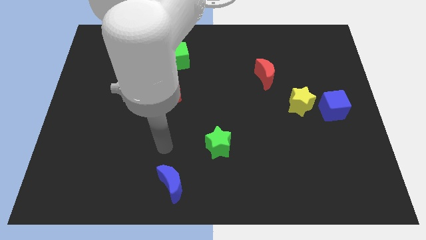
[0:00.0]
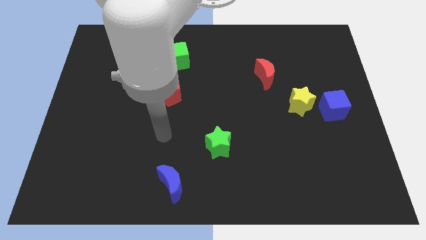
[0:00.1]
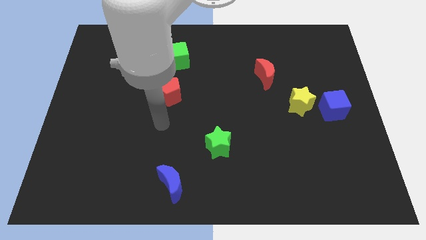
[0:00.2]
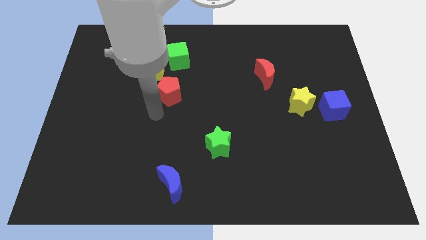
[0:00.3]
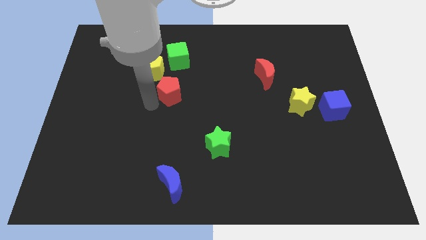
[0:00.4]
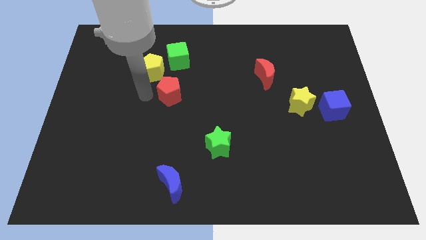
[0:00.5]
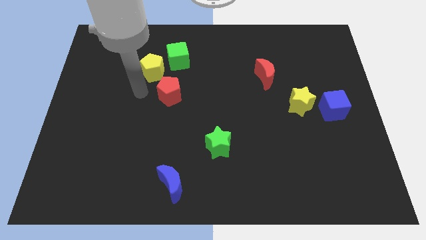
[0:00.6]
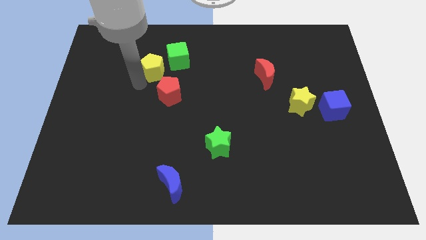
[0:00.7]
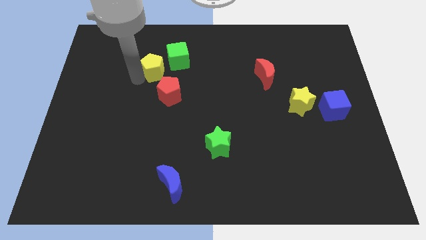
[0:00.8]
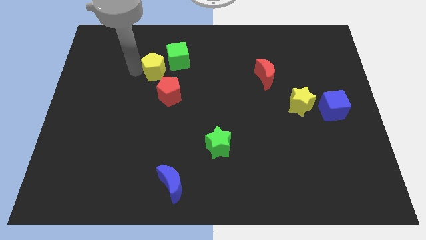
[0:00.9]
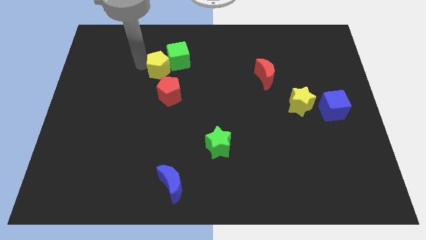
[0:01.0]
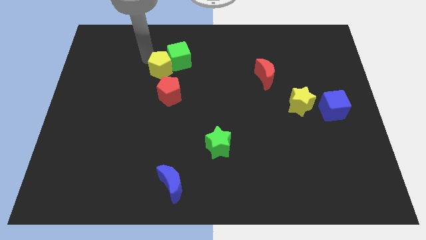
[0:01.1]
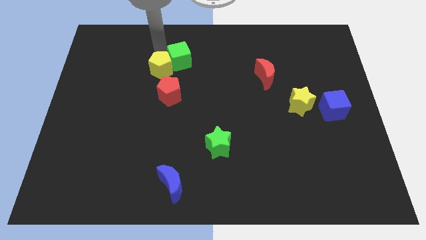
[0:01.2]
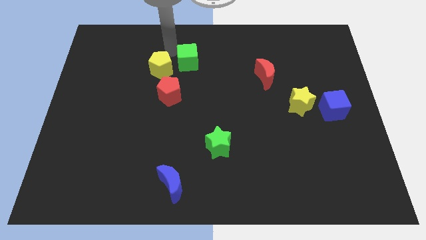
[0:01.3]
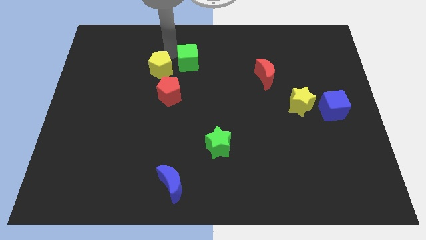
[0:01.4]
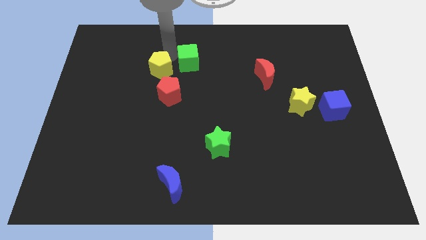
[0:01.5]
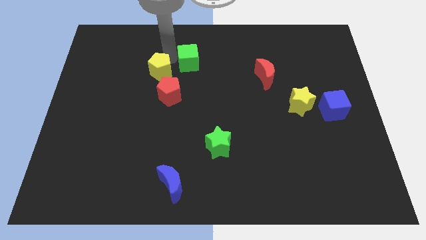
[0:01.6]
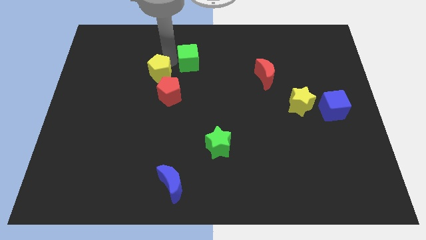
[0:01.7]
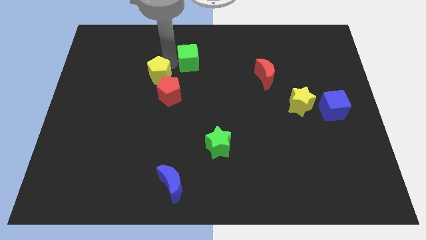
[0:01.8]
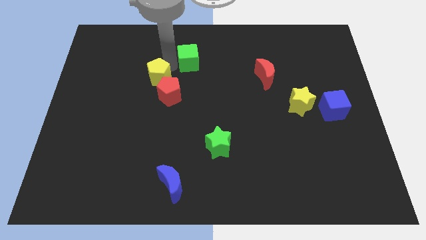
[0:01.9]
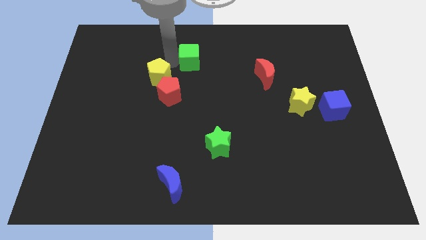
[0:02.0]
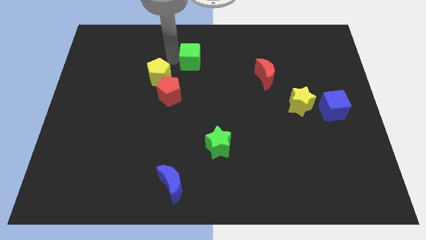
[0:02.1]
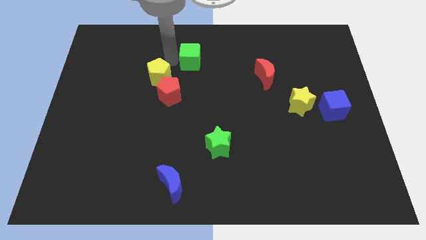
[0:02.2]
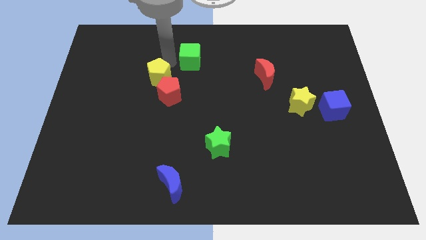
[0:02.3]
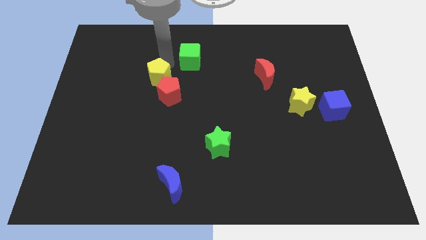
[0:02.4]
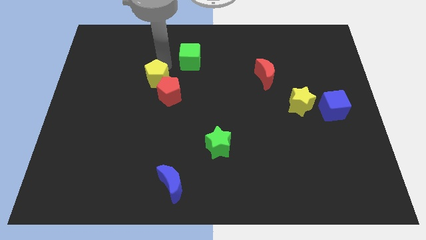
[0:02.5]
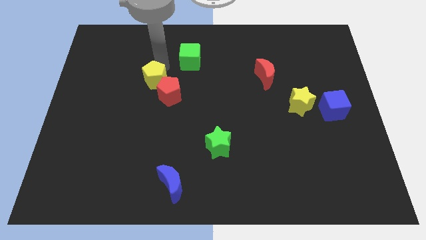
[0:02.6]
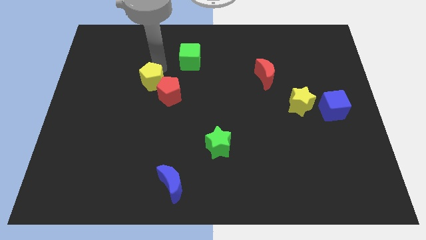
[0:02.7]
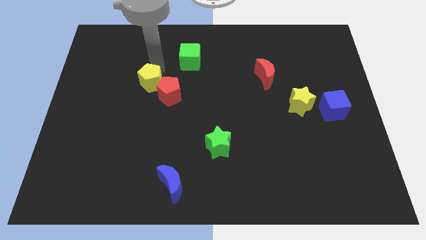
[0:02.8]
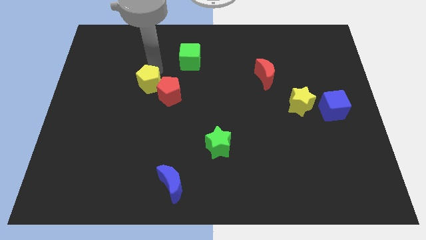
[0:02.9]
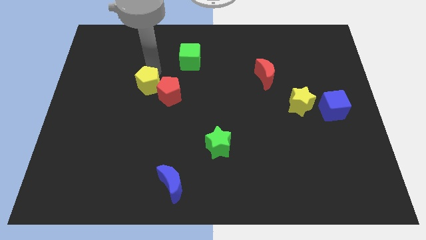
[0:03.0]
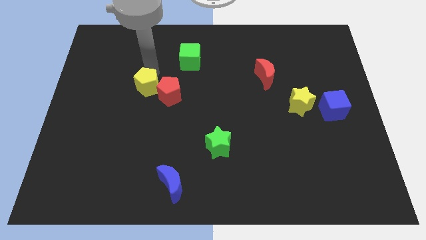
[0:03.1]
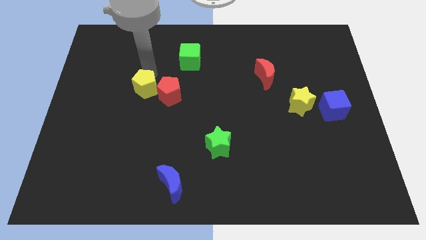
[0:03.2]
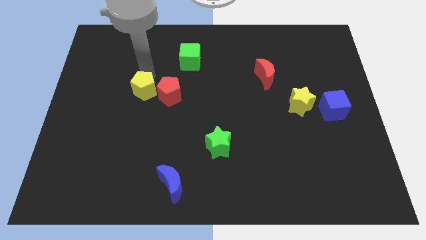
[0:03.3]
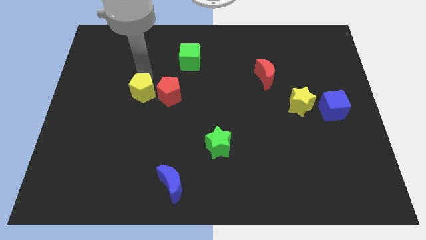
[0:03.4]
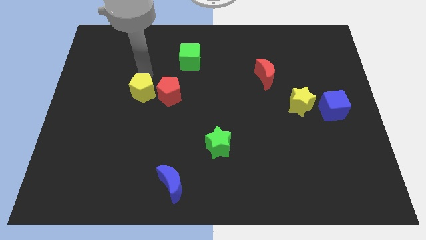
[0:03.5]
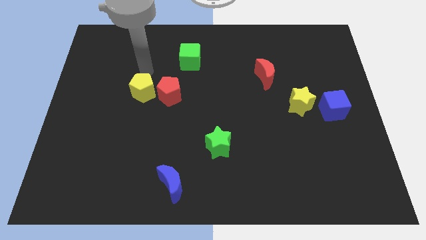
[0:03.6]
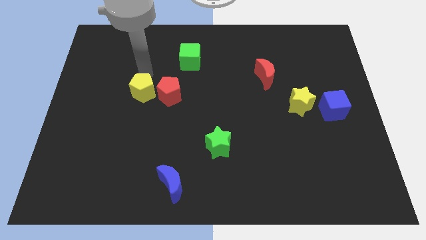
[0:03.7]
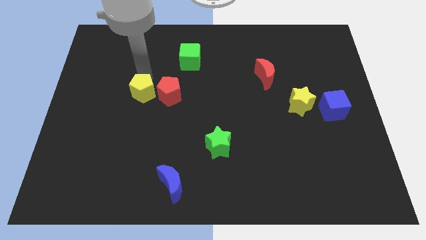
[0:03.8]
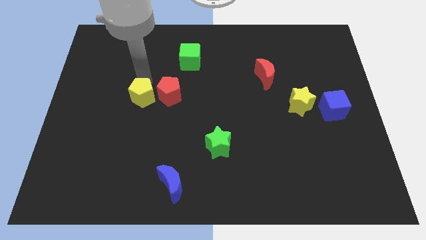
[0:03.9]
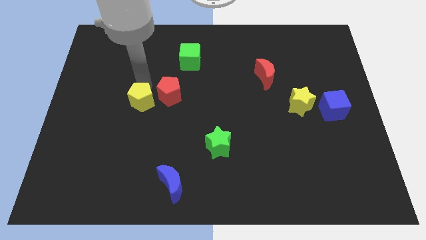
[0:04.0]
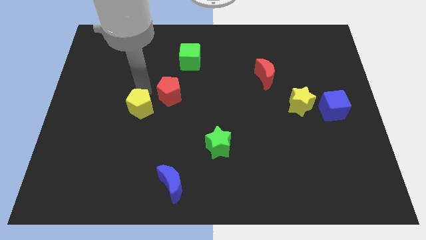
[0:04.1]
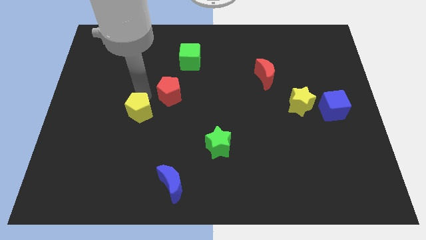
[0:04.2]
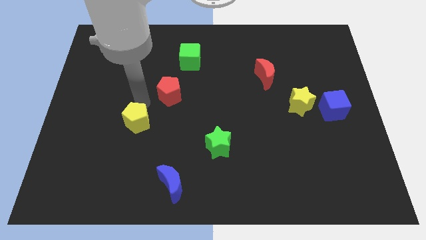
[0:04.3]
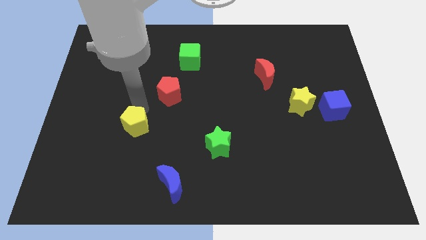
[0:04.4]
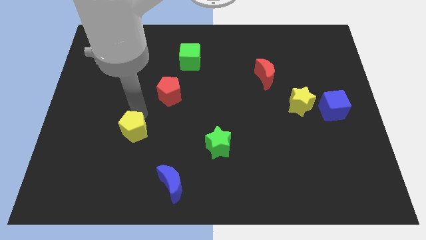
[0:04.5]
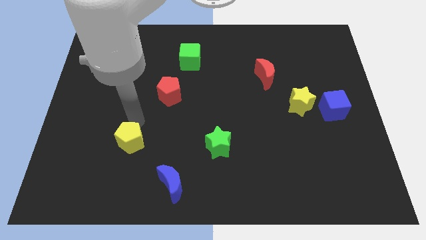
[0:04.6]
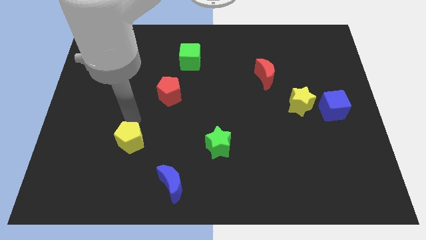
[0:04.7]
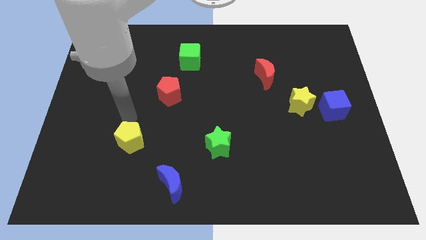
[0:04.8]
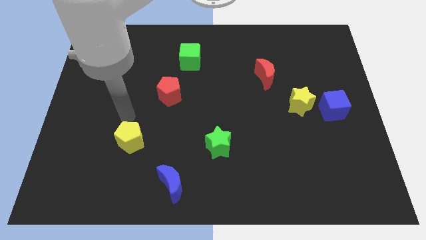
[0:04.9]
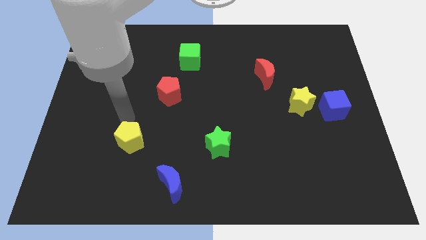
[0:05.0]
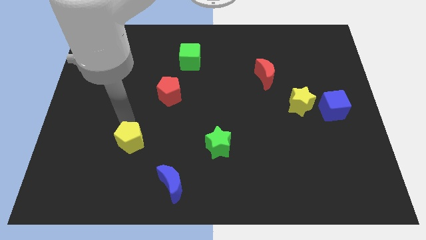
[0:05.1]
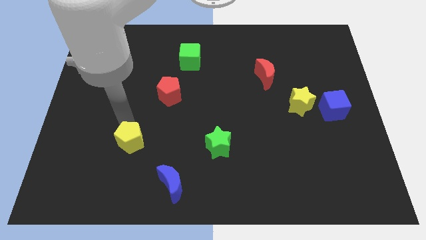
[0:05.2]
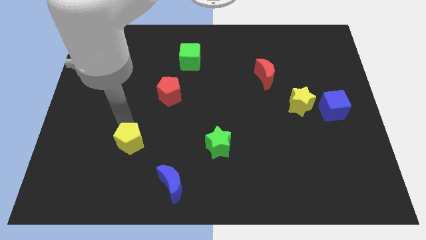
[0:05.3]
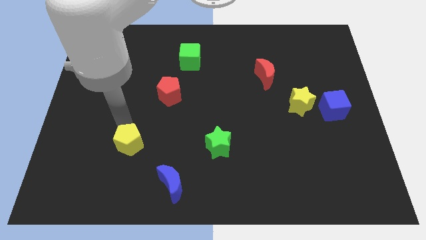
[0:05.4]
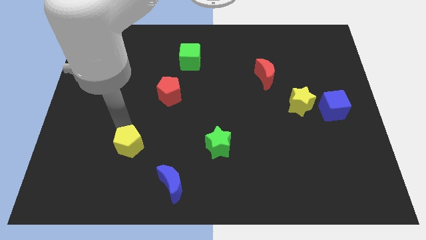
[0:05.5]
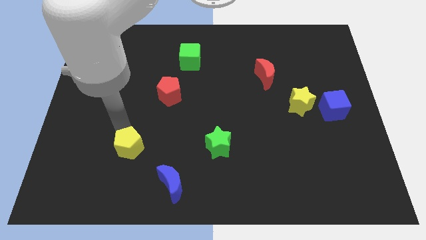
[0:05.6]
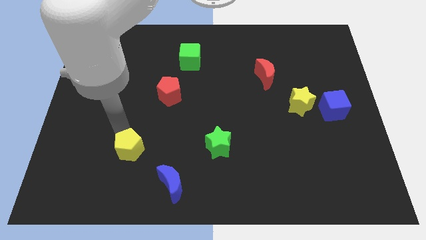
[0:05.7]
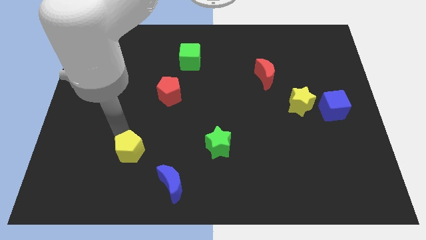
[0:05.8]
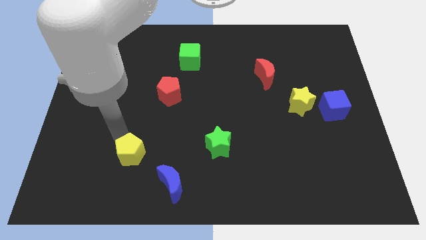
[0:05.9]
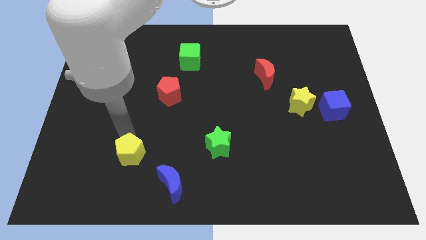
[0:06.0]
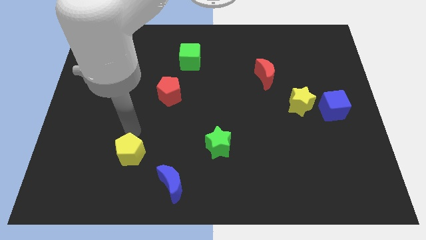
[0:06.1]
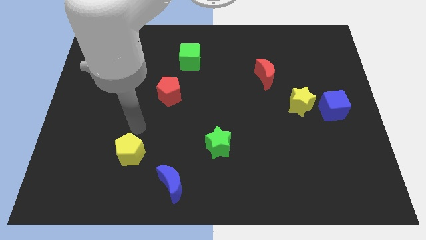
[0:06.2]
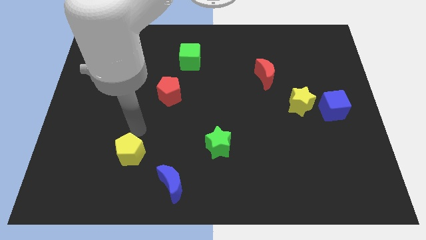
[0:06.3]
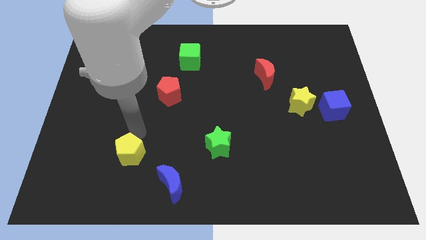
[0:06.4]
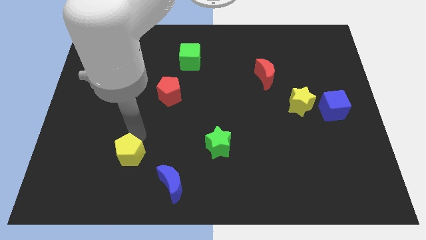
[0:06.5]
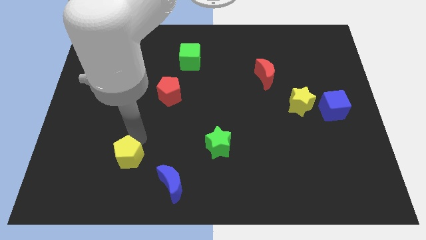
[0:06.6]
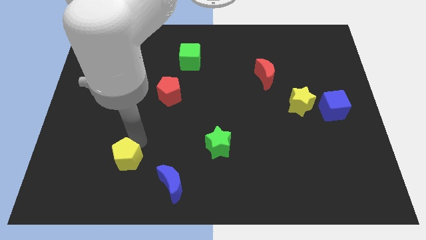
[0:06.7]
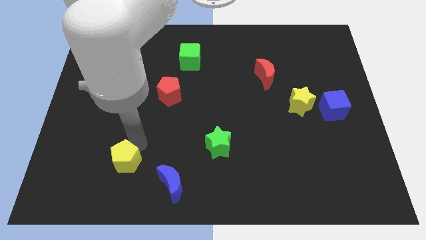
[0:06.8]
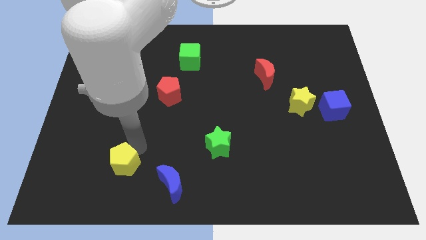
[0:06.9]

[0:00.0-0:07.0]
slide the yellow pentagon to the left of the blue moon

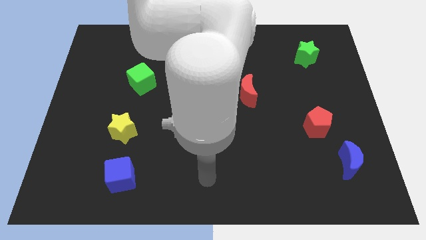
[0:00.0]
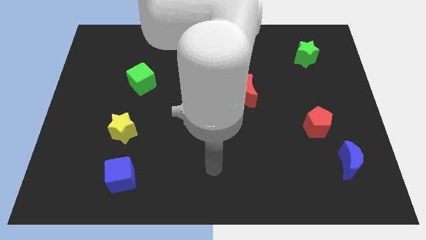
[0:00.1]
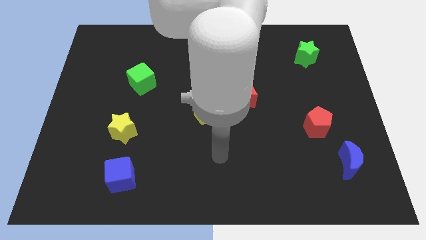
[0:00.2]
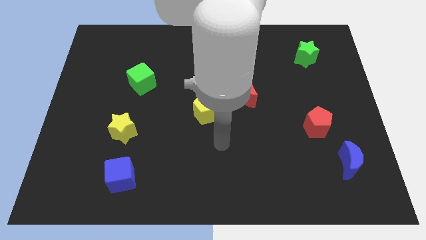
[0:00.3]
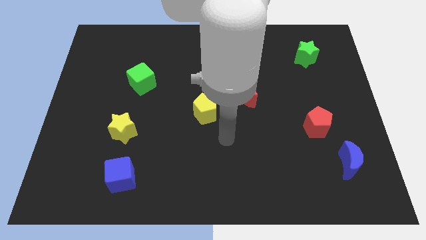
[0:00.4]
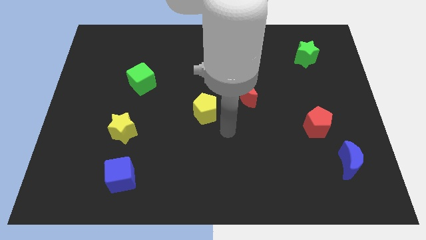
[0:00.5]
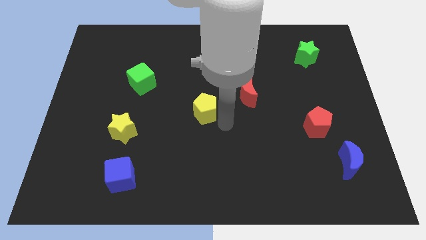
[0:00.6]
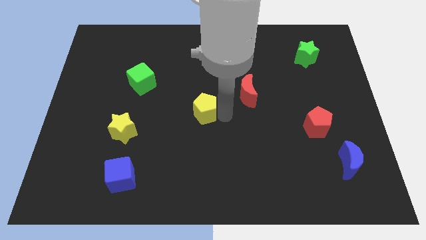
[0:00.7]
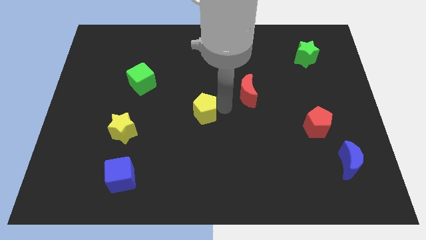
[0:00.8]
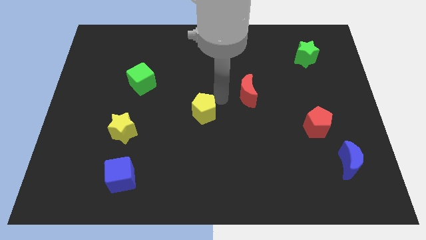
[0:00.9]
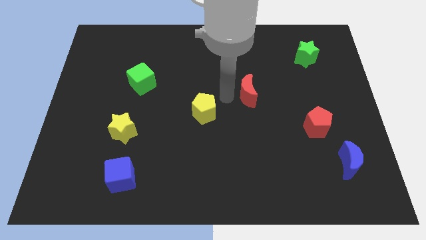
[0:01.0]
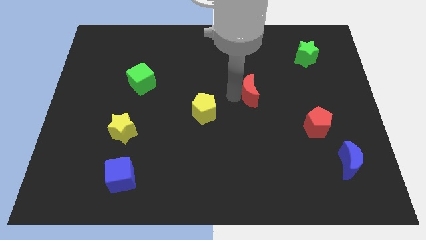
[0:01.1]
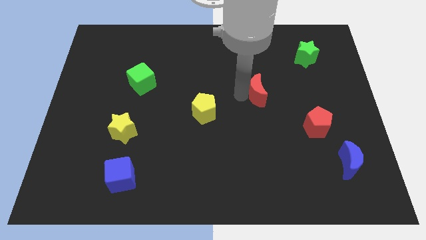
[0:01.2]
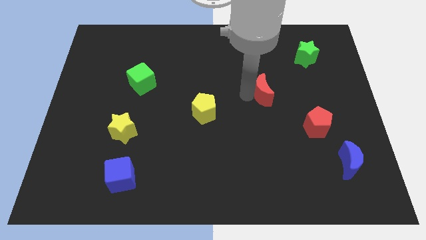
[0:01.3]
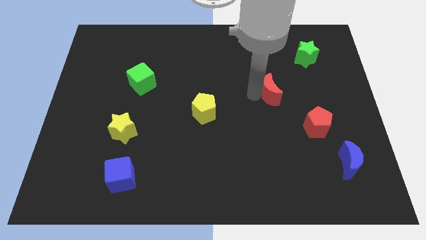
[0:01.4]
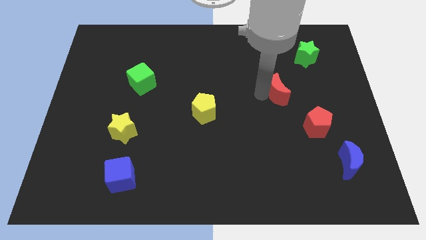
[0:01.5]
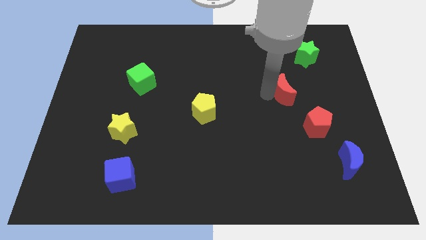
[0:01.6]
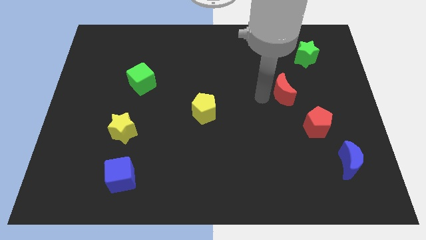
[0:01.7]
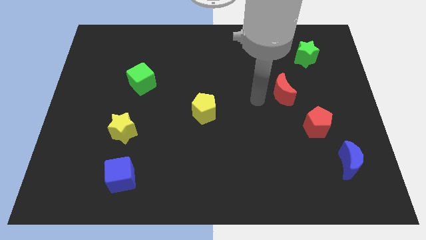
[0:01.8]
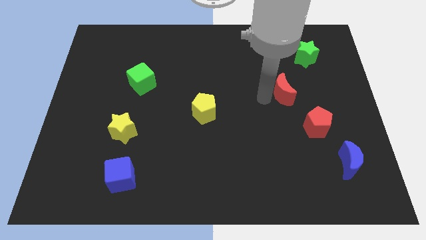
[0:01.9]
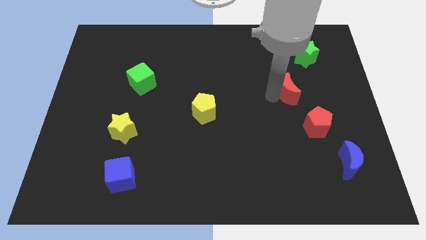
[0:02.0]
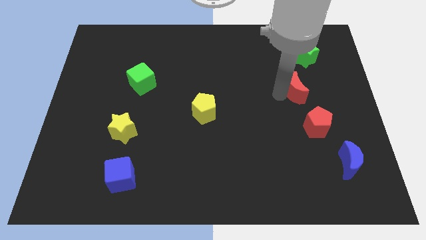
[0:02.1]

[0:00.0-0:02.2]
push the red moon to the bottom side of the green star
